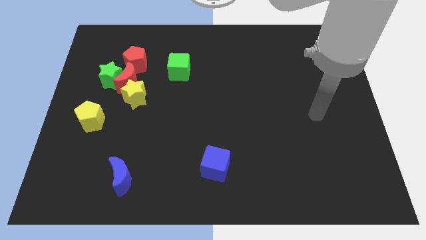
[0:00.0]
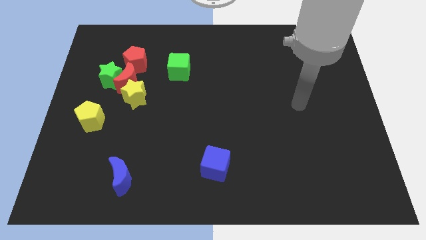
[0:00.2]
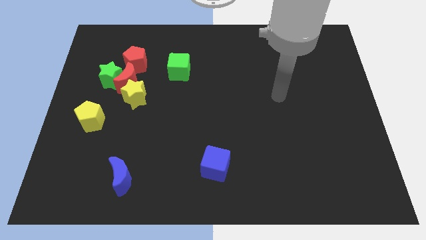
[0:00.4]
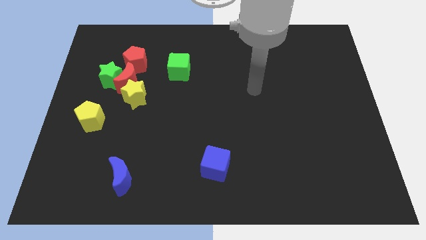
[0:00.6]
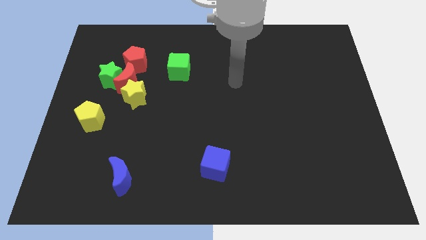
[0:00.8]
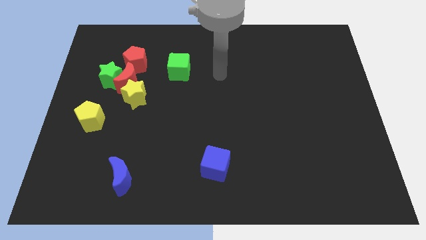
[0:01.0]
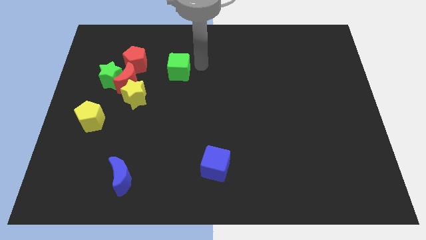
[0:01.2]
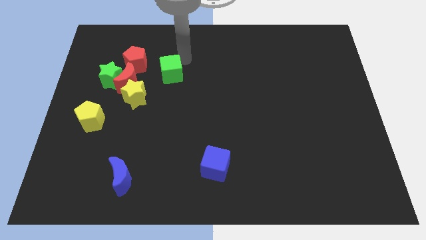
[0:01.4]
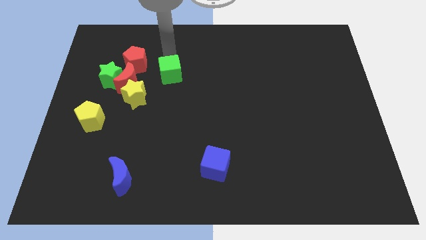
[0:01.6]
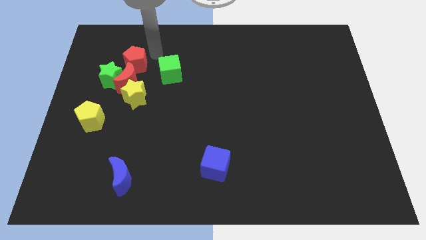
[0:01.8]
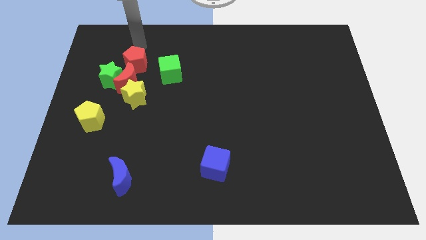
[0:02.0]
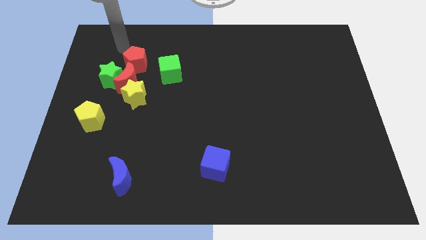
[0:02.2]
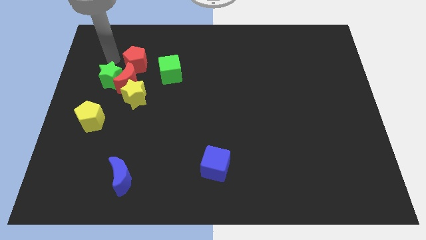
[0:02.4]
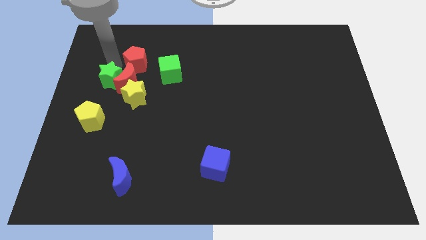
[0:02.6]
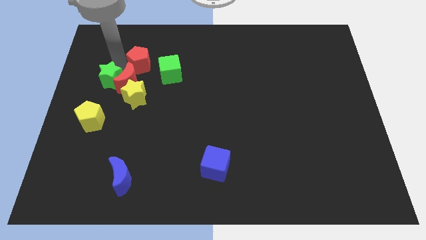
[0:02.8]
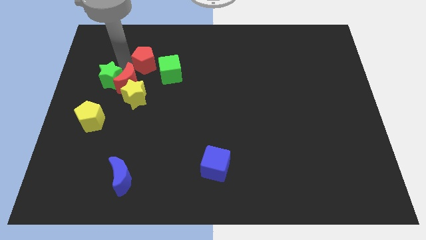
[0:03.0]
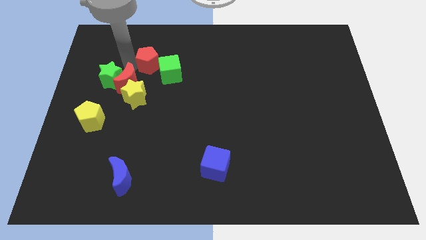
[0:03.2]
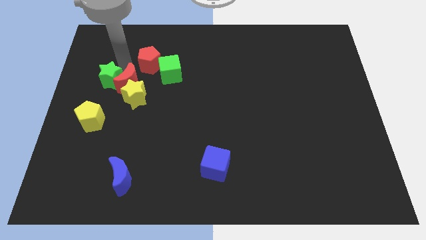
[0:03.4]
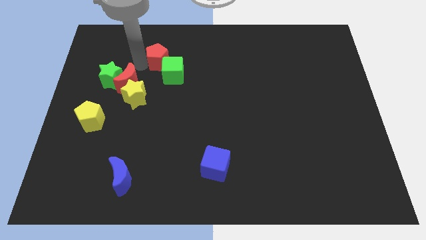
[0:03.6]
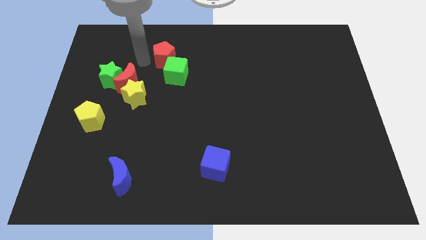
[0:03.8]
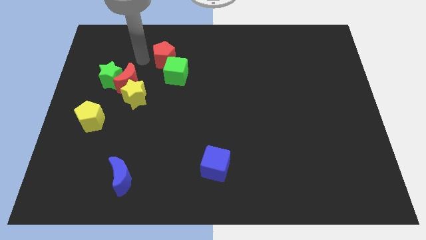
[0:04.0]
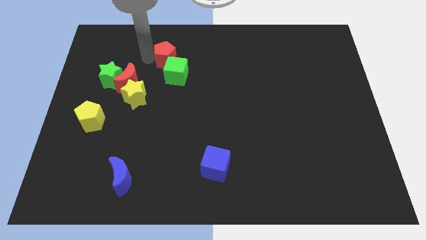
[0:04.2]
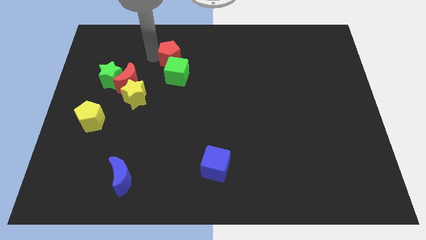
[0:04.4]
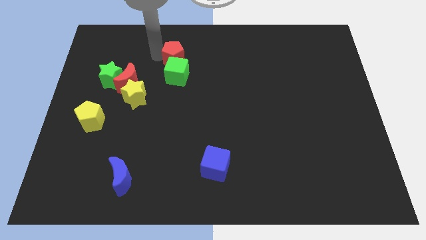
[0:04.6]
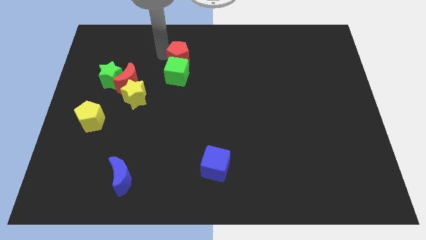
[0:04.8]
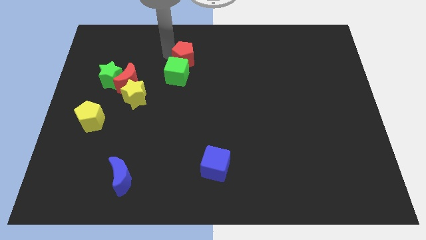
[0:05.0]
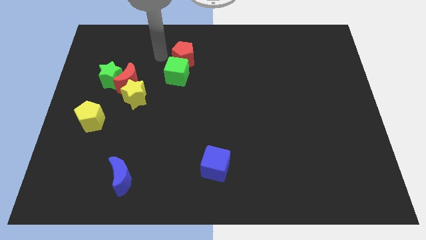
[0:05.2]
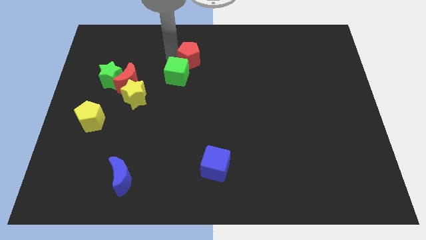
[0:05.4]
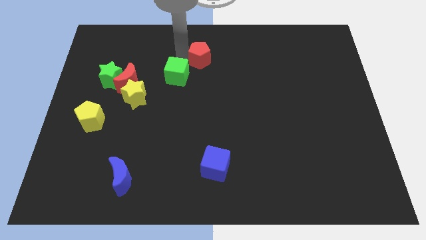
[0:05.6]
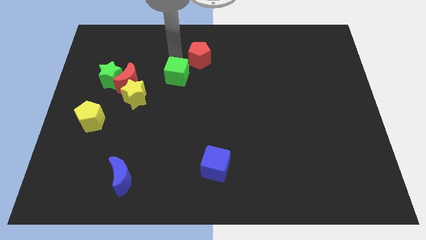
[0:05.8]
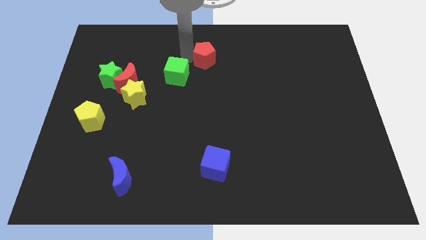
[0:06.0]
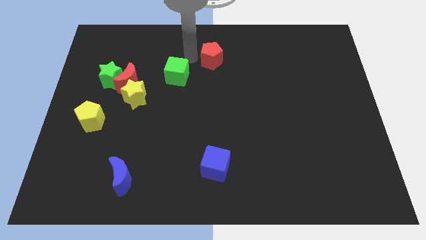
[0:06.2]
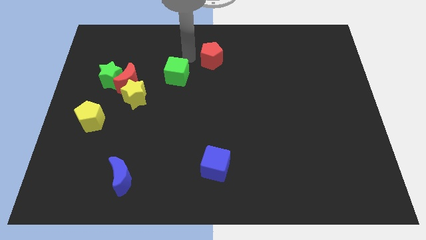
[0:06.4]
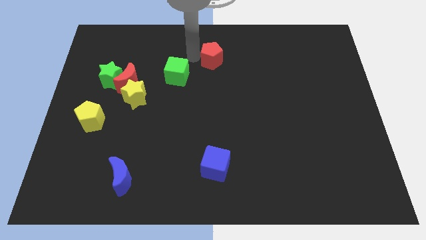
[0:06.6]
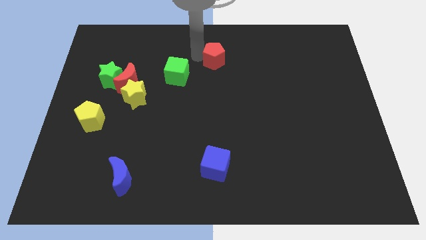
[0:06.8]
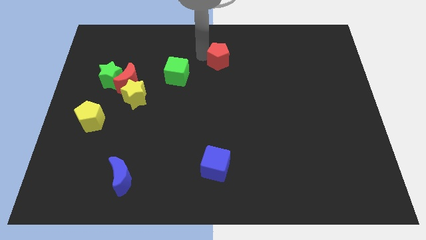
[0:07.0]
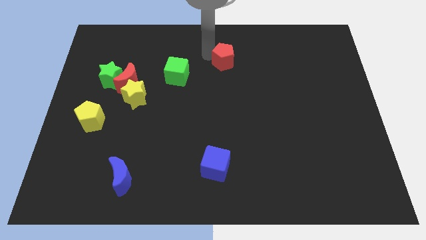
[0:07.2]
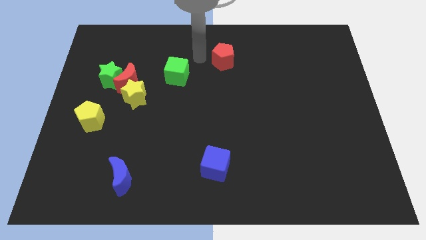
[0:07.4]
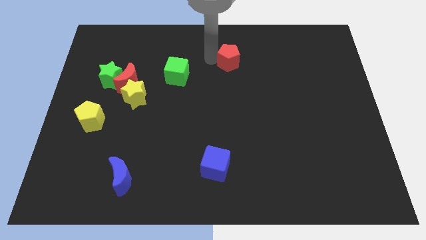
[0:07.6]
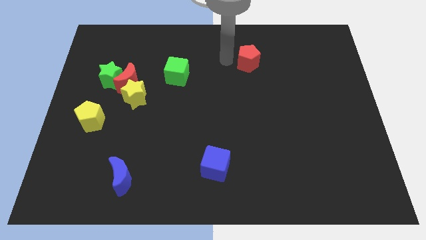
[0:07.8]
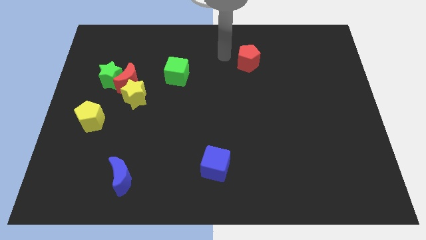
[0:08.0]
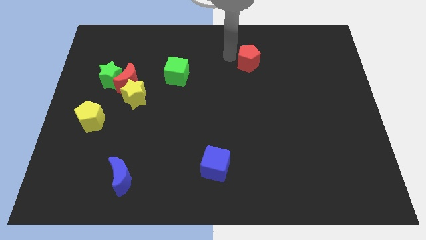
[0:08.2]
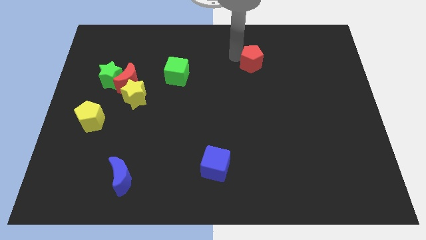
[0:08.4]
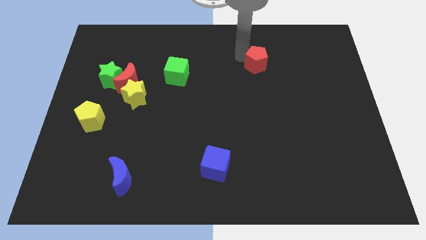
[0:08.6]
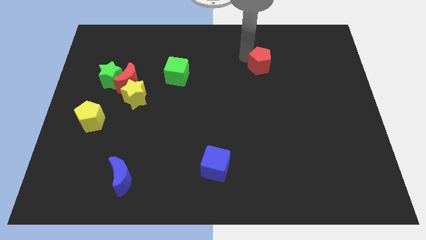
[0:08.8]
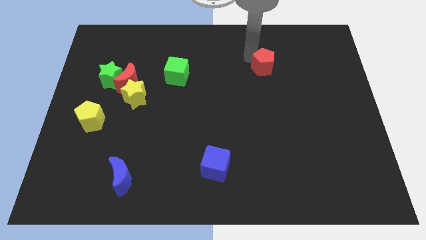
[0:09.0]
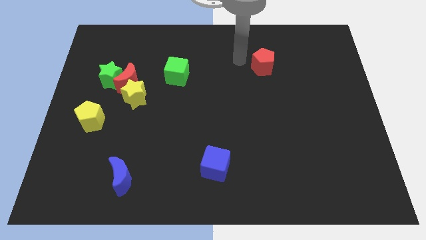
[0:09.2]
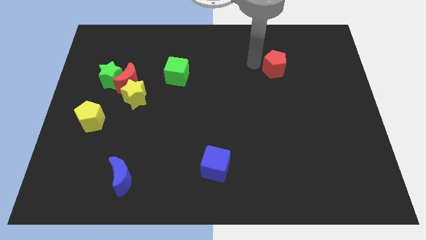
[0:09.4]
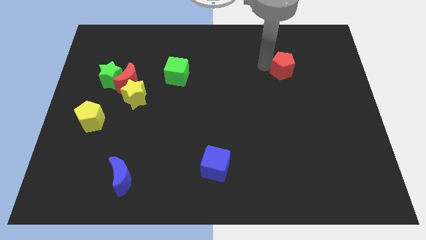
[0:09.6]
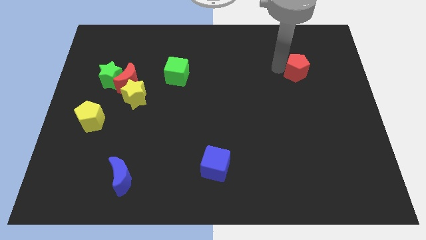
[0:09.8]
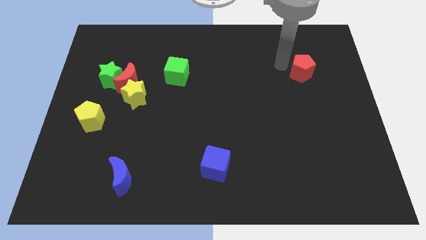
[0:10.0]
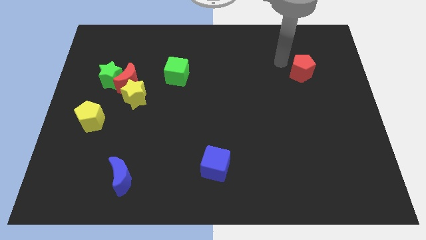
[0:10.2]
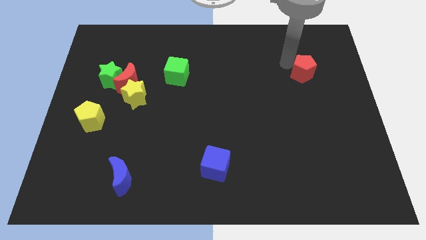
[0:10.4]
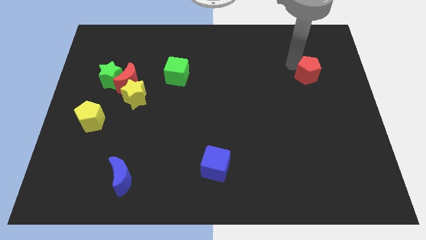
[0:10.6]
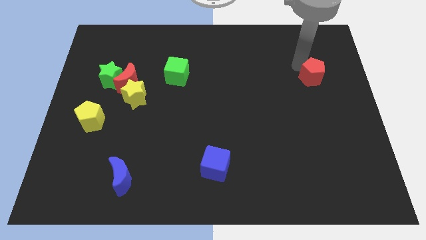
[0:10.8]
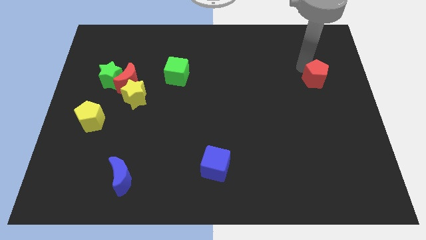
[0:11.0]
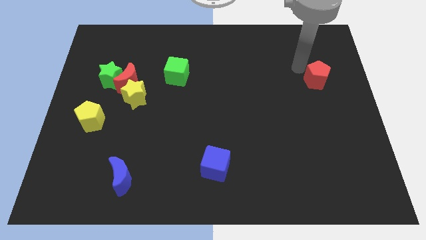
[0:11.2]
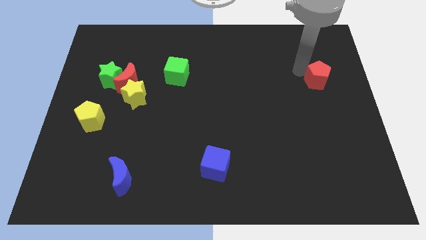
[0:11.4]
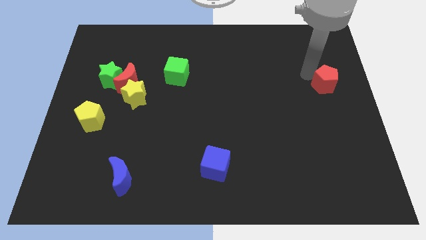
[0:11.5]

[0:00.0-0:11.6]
put the red pentagon to the center right

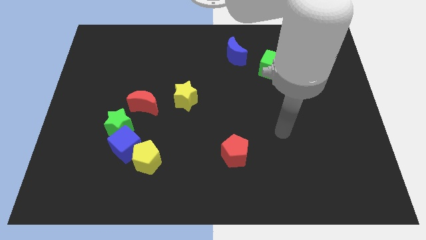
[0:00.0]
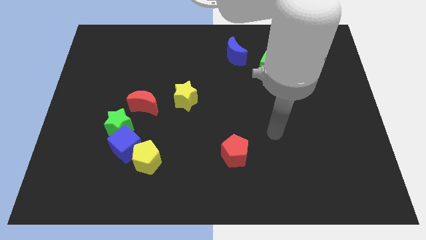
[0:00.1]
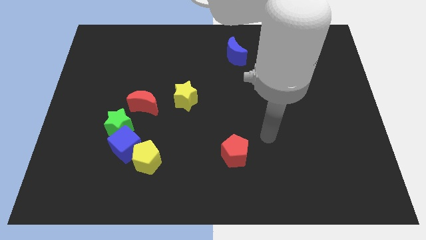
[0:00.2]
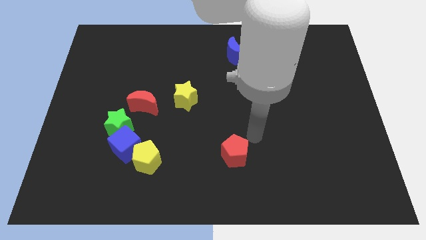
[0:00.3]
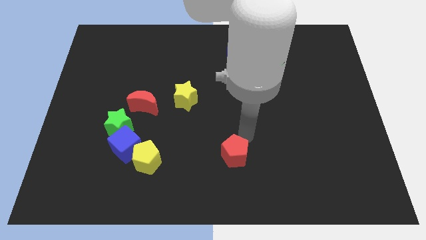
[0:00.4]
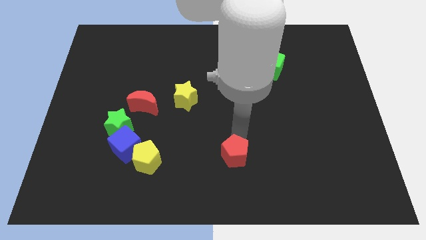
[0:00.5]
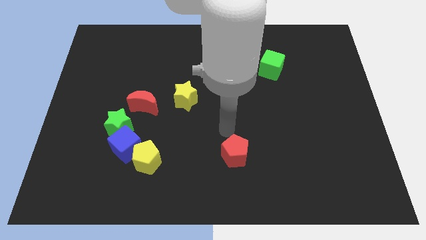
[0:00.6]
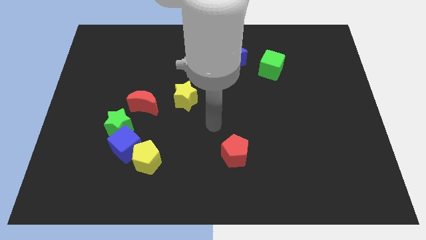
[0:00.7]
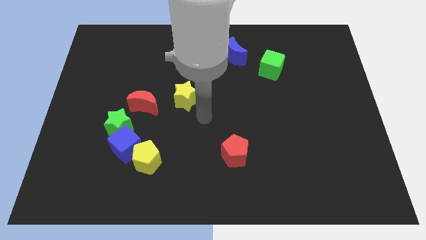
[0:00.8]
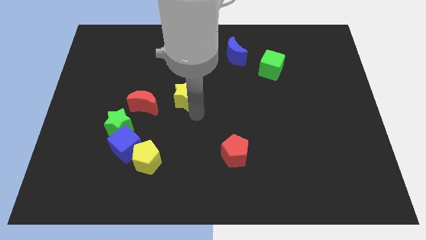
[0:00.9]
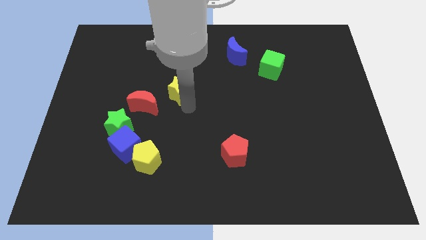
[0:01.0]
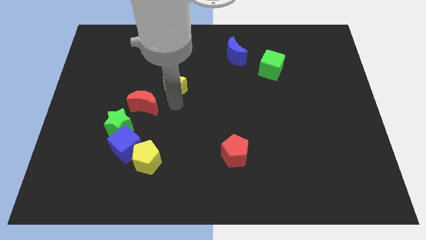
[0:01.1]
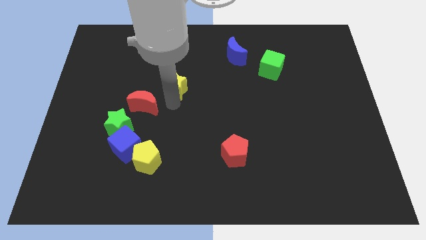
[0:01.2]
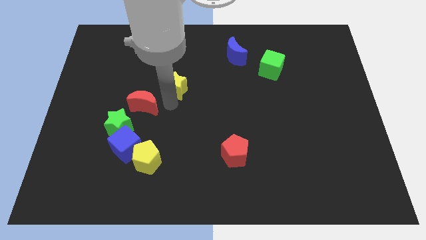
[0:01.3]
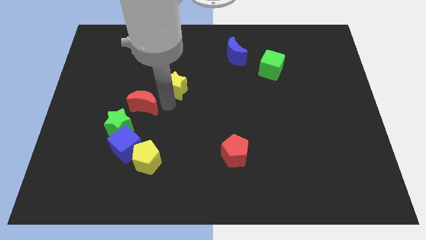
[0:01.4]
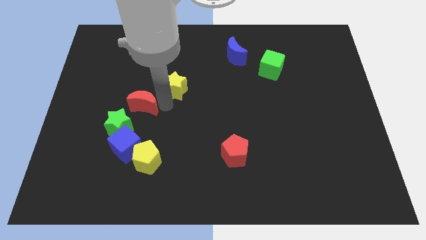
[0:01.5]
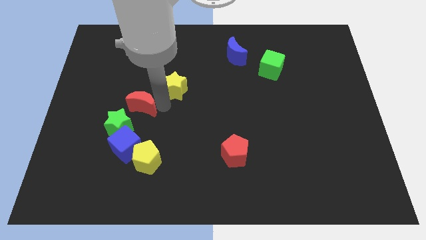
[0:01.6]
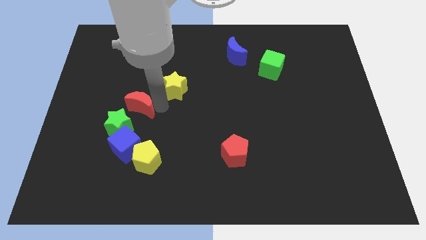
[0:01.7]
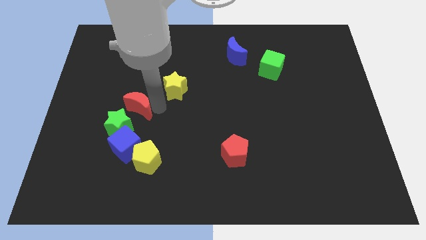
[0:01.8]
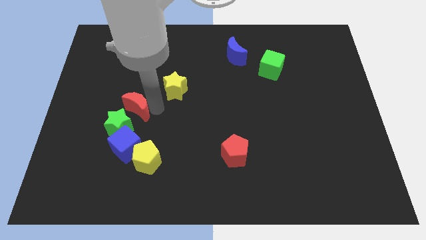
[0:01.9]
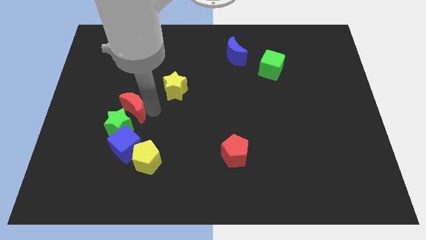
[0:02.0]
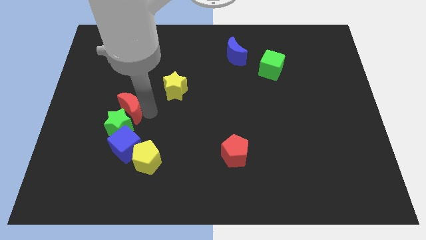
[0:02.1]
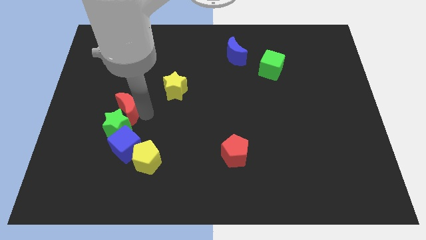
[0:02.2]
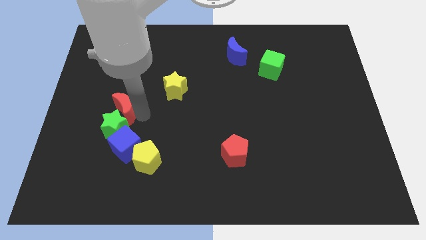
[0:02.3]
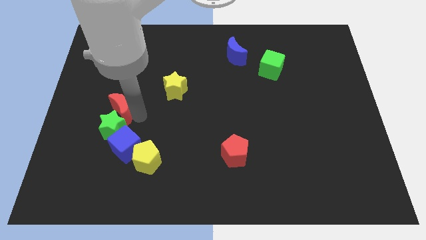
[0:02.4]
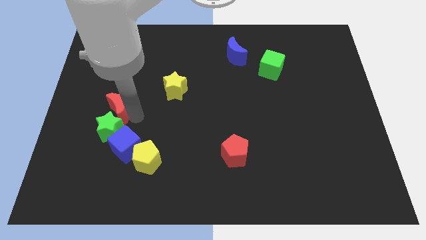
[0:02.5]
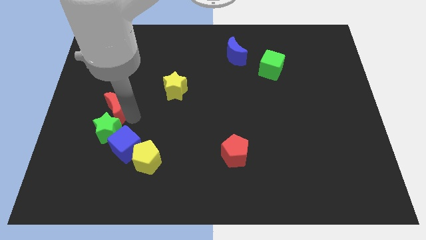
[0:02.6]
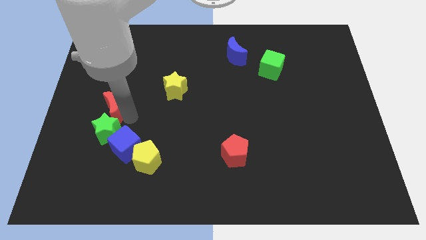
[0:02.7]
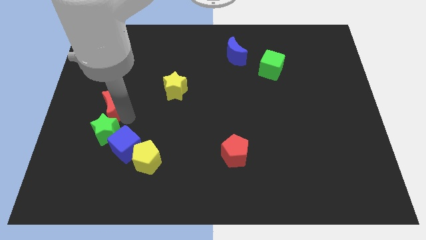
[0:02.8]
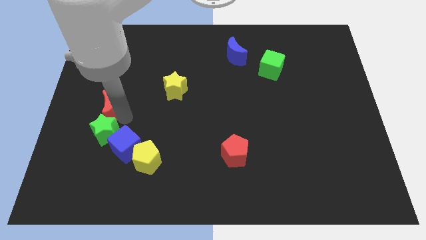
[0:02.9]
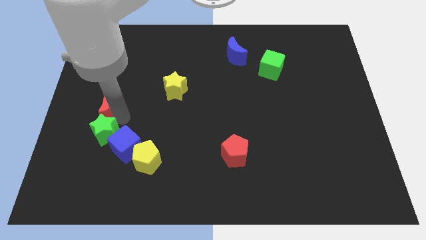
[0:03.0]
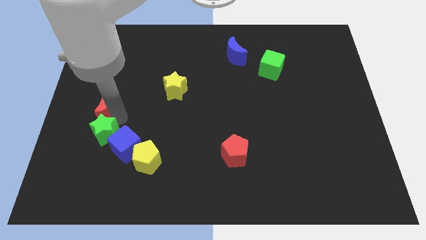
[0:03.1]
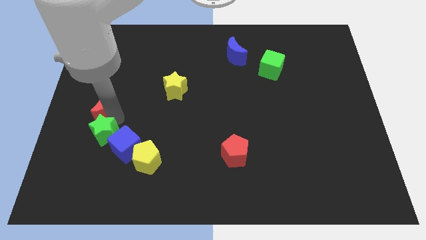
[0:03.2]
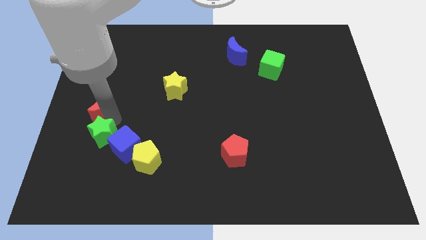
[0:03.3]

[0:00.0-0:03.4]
slide the red moon to the center left
